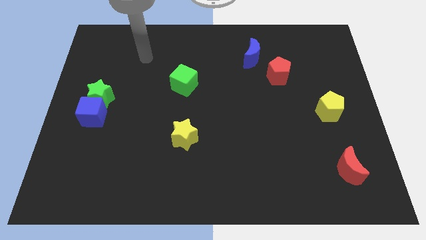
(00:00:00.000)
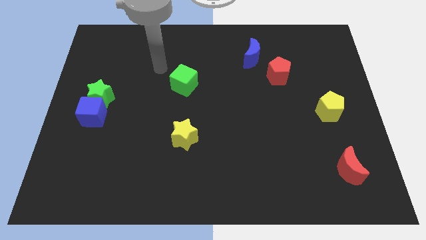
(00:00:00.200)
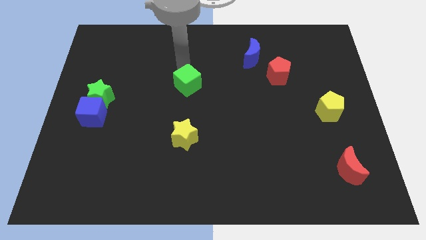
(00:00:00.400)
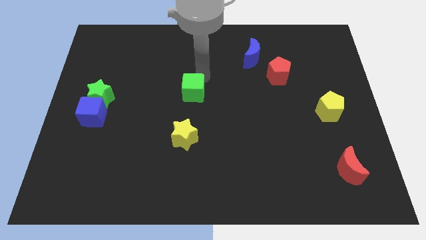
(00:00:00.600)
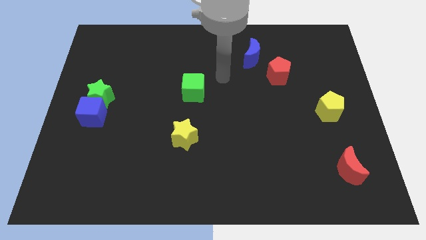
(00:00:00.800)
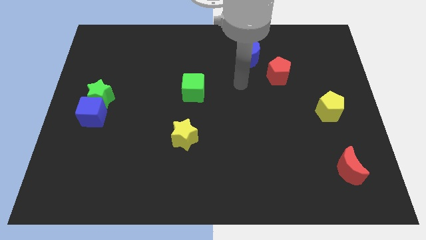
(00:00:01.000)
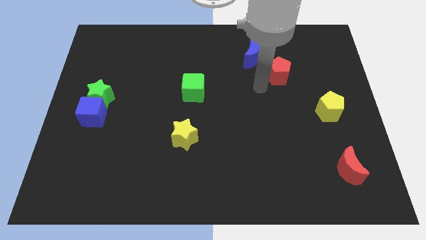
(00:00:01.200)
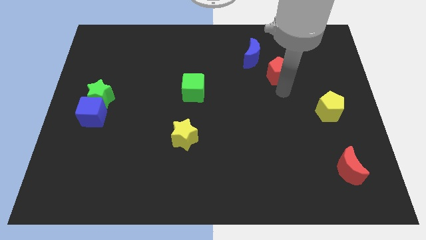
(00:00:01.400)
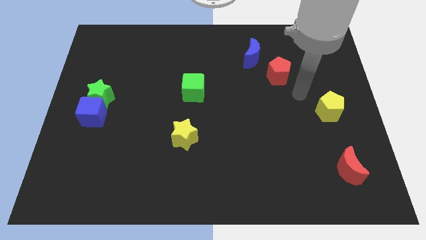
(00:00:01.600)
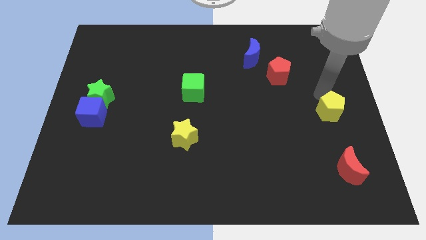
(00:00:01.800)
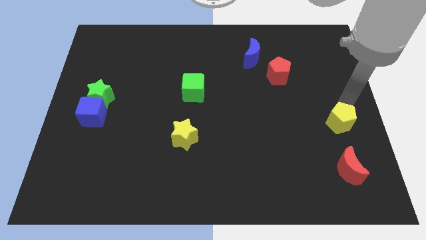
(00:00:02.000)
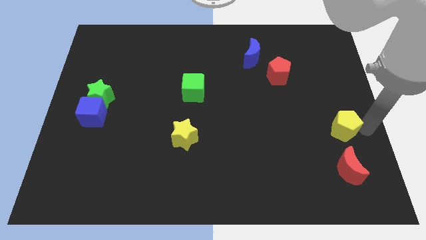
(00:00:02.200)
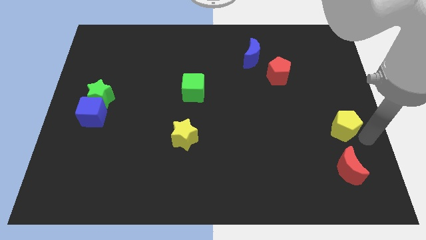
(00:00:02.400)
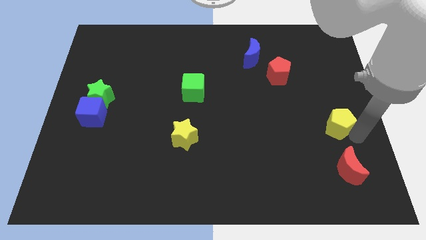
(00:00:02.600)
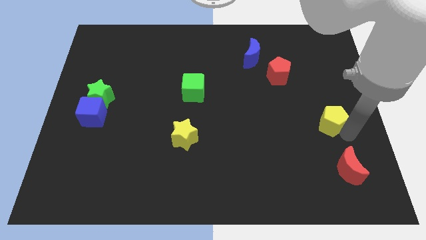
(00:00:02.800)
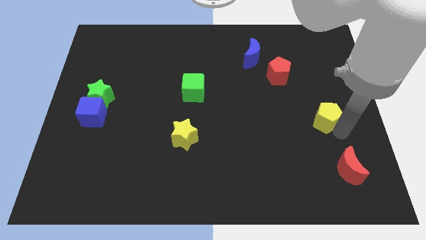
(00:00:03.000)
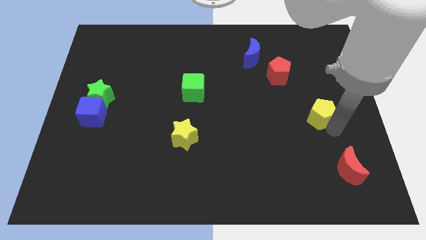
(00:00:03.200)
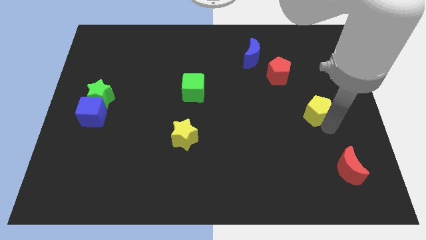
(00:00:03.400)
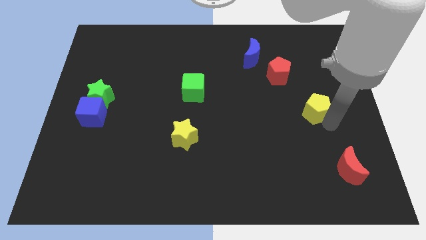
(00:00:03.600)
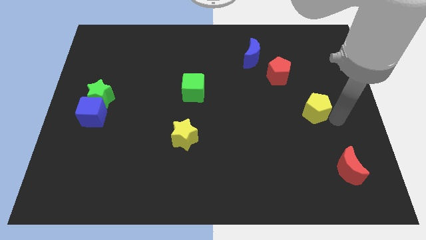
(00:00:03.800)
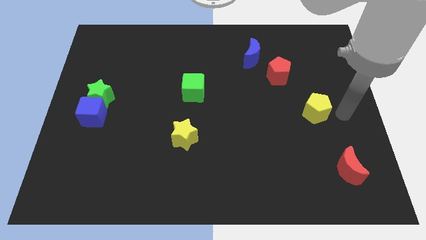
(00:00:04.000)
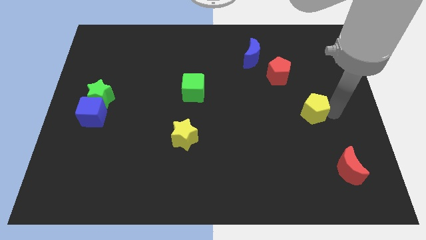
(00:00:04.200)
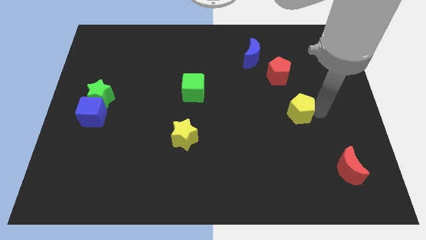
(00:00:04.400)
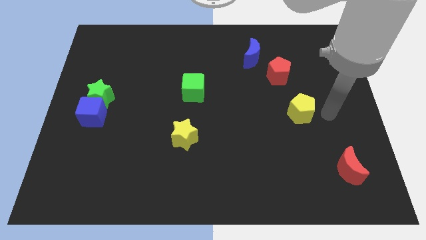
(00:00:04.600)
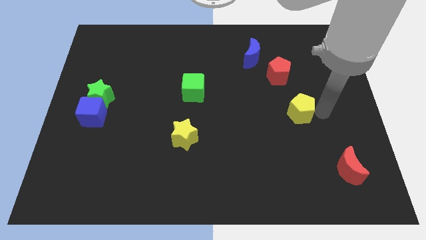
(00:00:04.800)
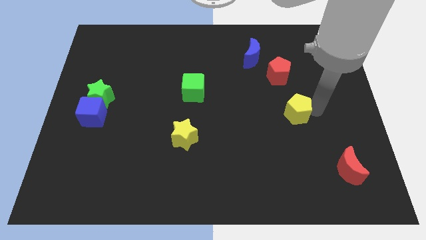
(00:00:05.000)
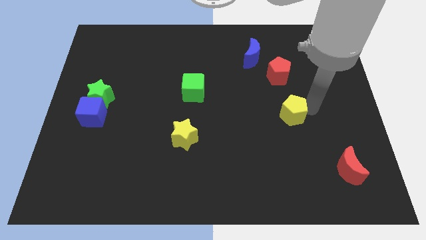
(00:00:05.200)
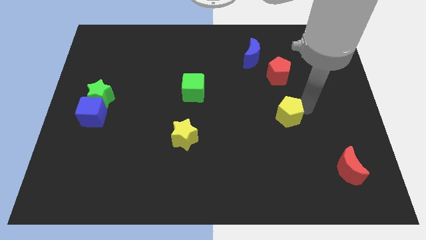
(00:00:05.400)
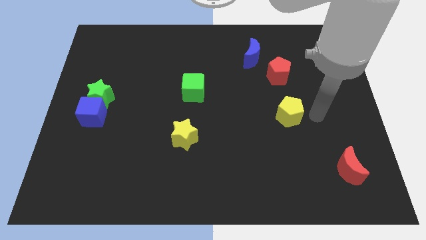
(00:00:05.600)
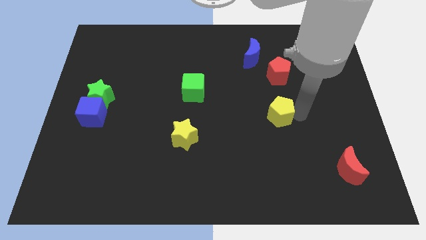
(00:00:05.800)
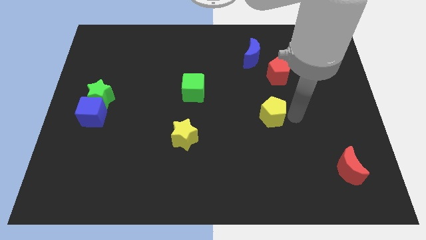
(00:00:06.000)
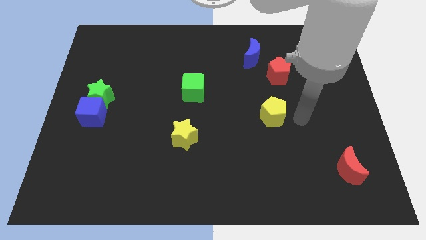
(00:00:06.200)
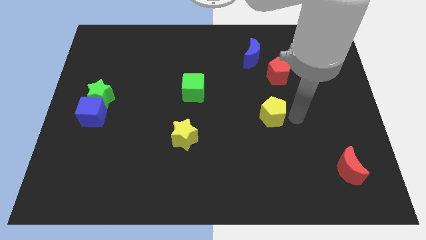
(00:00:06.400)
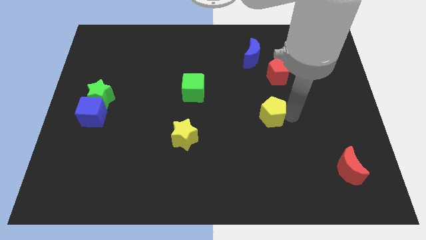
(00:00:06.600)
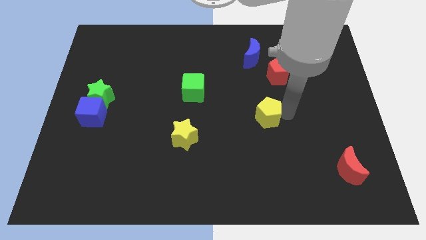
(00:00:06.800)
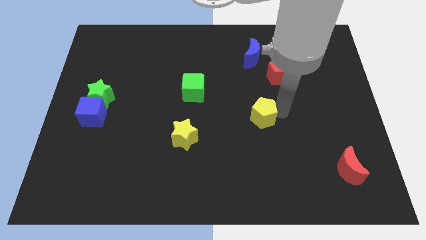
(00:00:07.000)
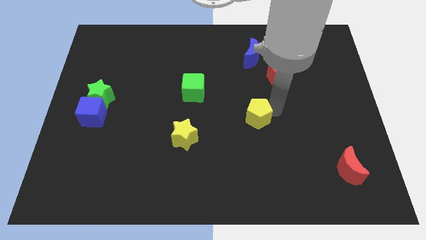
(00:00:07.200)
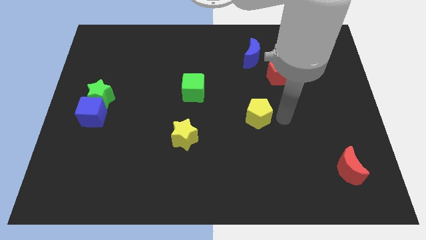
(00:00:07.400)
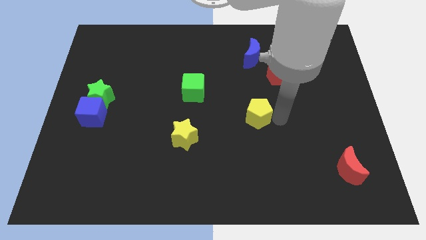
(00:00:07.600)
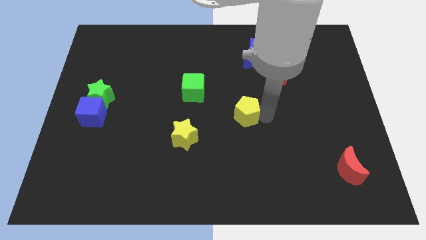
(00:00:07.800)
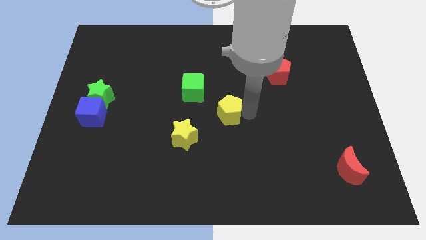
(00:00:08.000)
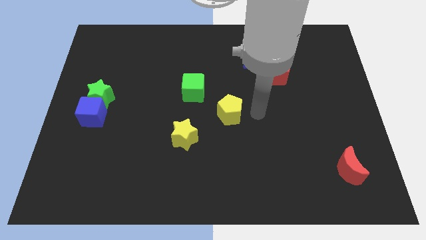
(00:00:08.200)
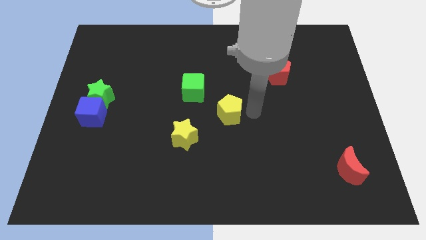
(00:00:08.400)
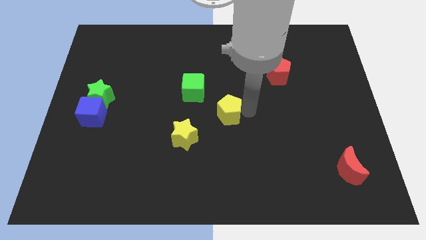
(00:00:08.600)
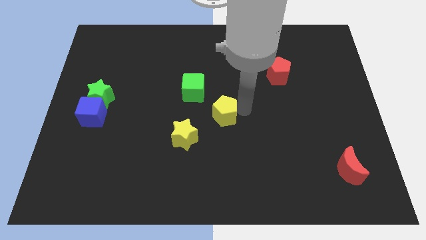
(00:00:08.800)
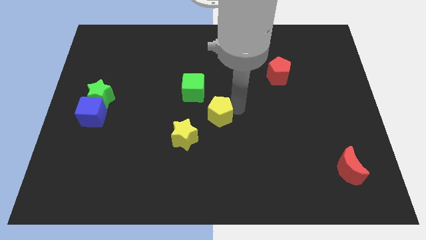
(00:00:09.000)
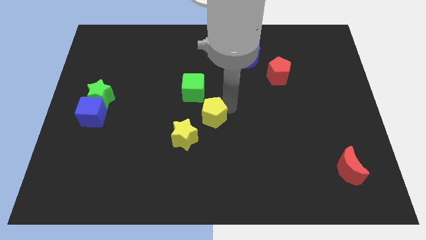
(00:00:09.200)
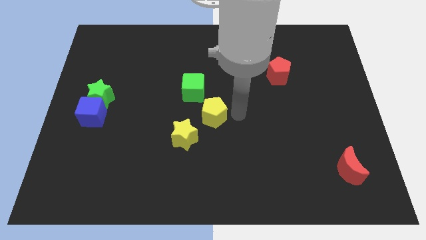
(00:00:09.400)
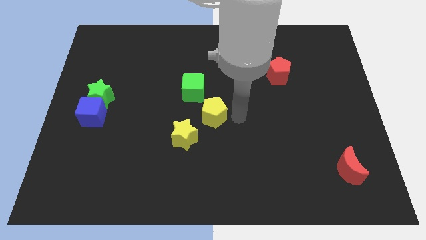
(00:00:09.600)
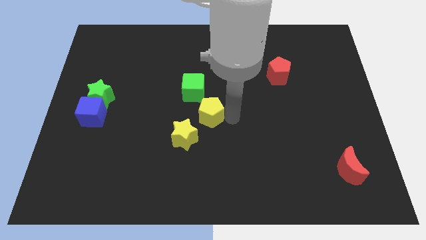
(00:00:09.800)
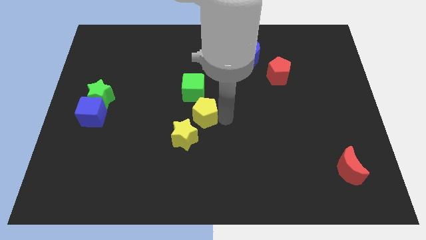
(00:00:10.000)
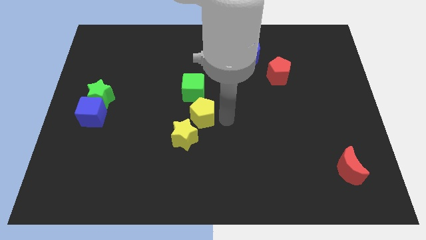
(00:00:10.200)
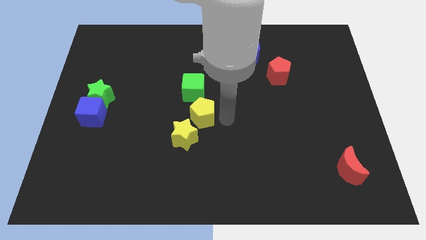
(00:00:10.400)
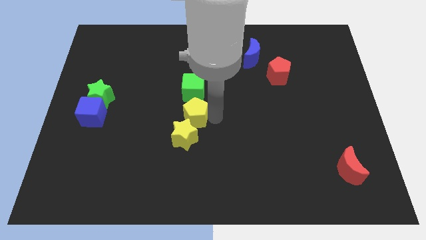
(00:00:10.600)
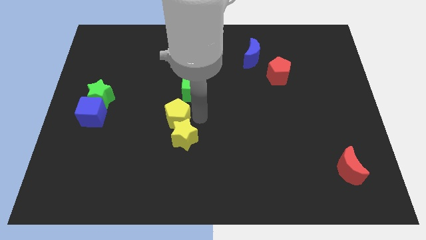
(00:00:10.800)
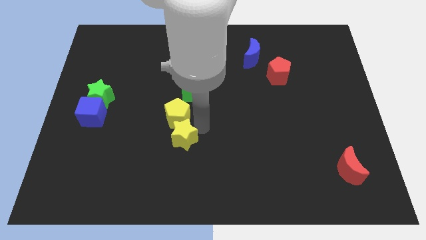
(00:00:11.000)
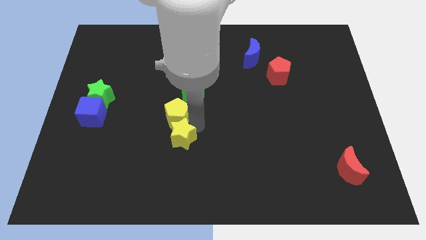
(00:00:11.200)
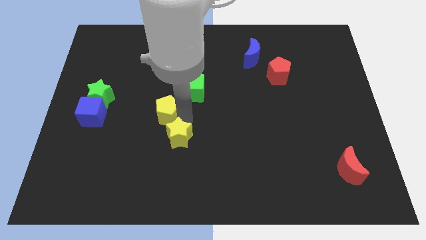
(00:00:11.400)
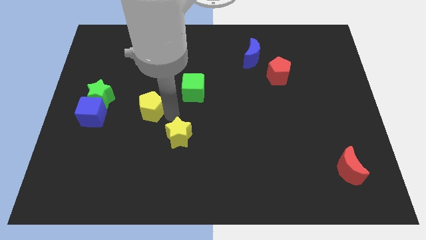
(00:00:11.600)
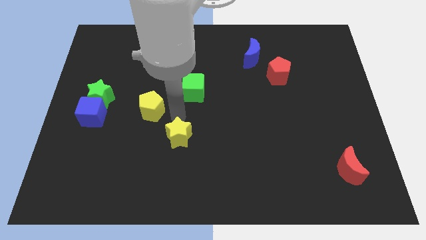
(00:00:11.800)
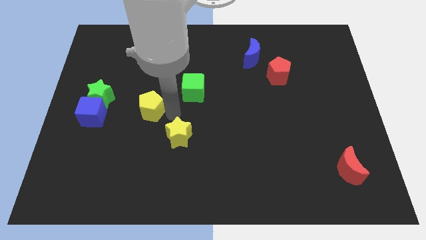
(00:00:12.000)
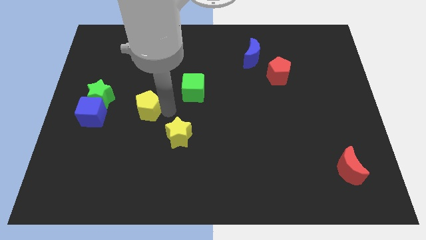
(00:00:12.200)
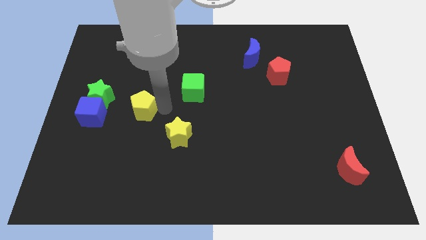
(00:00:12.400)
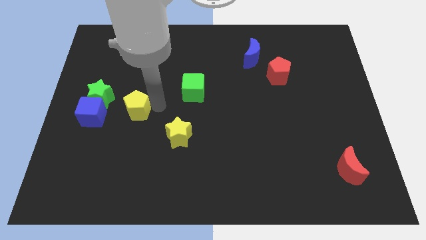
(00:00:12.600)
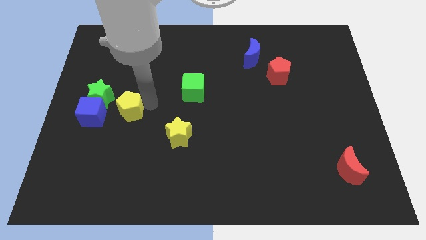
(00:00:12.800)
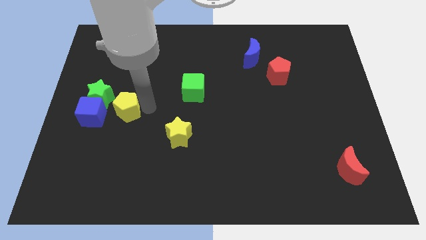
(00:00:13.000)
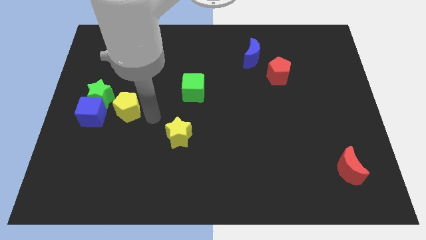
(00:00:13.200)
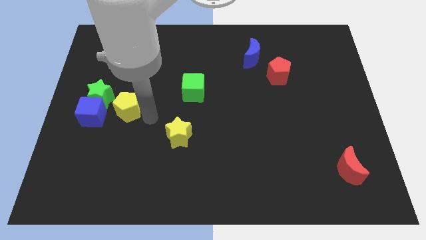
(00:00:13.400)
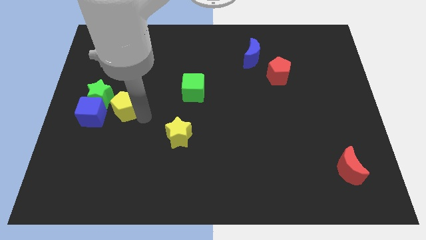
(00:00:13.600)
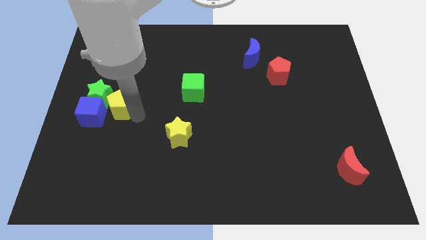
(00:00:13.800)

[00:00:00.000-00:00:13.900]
move the yellow pentagon next to the green star
